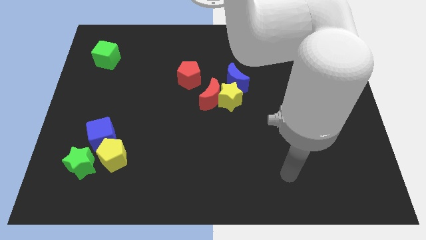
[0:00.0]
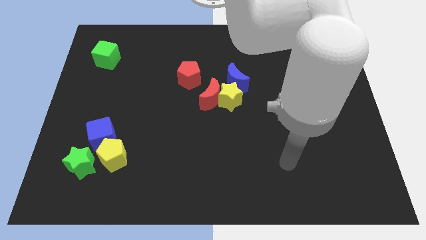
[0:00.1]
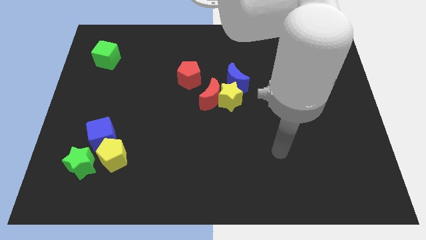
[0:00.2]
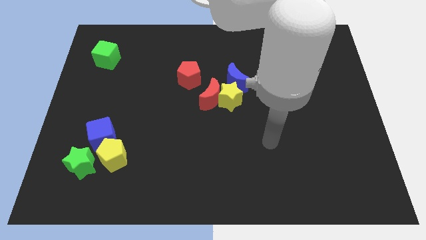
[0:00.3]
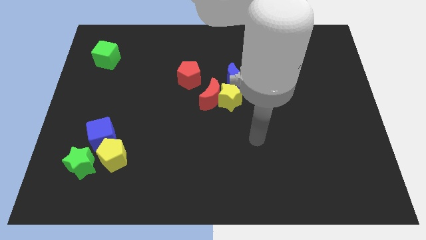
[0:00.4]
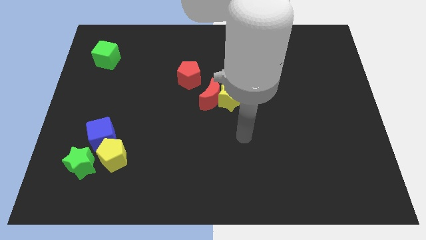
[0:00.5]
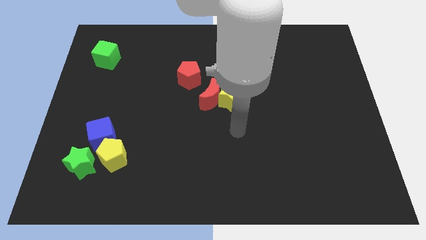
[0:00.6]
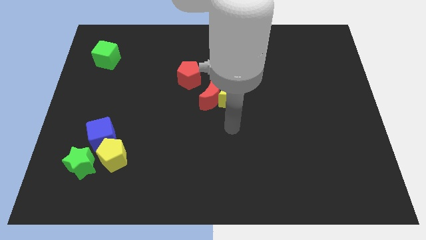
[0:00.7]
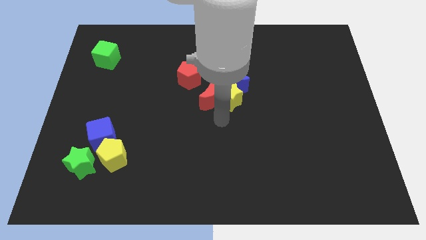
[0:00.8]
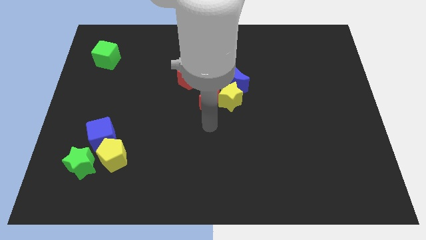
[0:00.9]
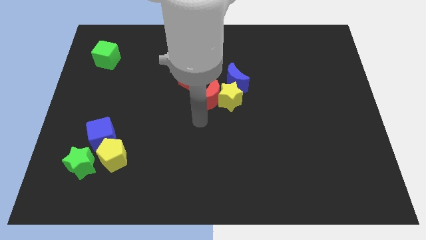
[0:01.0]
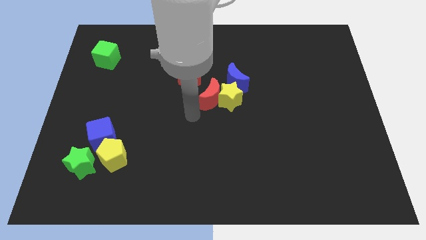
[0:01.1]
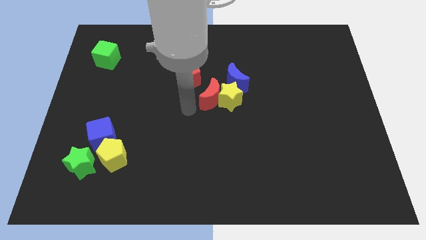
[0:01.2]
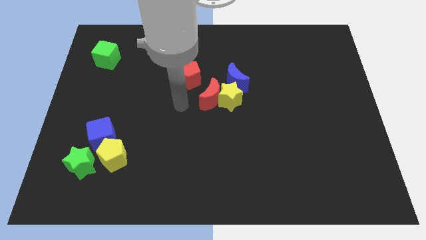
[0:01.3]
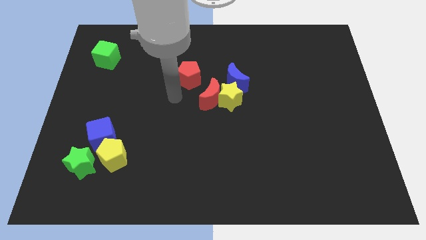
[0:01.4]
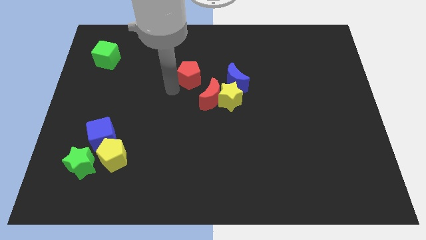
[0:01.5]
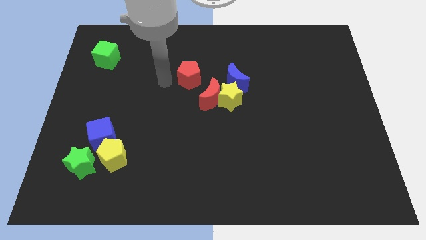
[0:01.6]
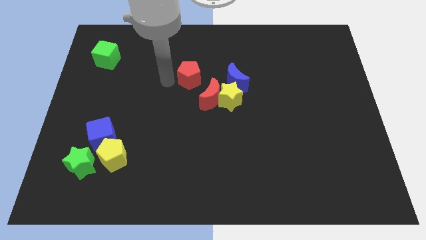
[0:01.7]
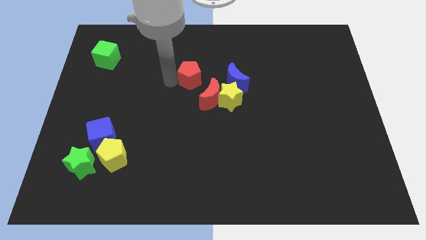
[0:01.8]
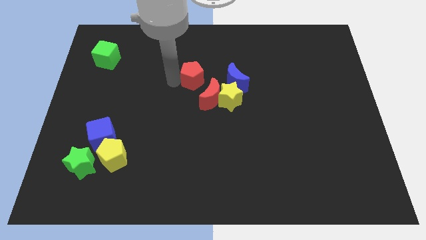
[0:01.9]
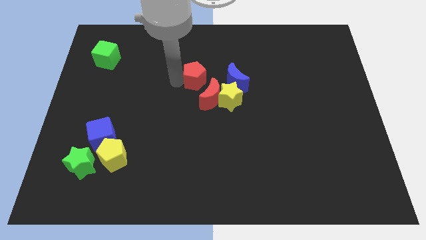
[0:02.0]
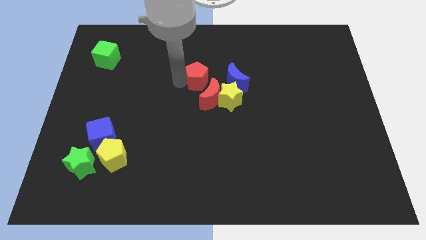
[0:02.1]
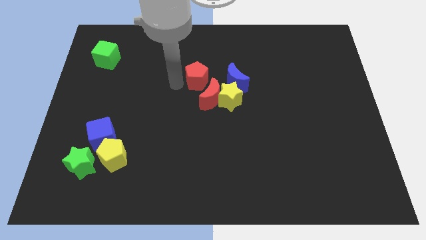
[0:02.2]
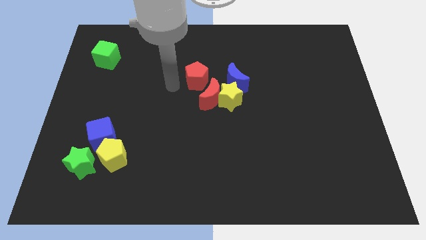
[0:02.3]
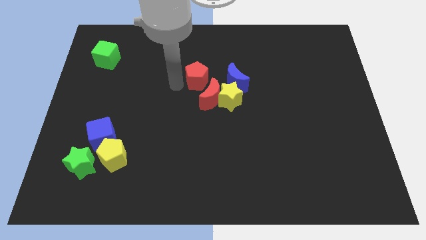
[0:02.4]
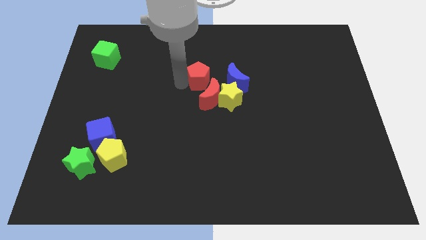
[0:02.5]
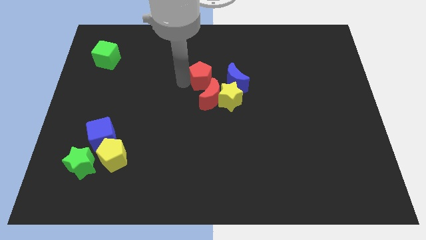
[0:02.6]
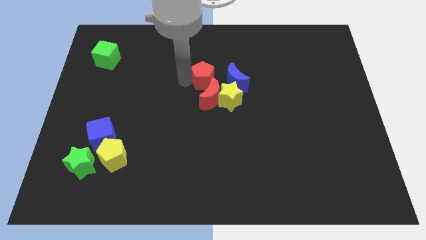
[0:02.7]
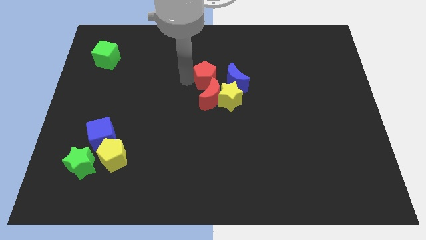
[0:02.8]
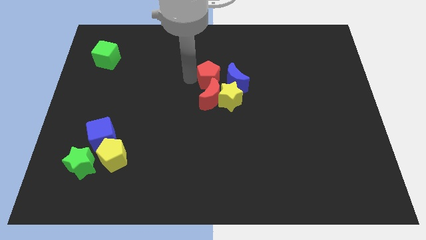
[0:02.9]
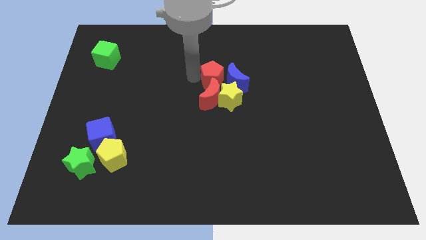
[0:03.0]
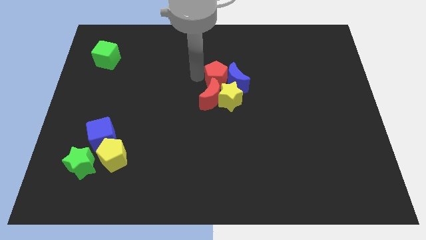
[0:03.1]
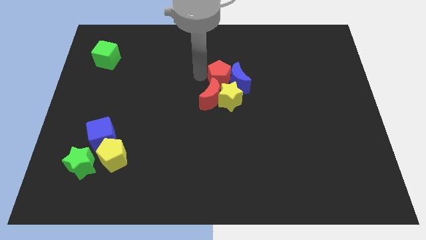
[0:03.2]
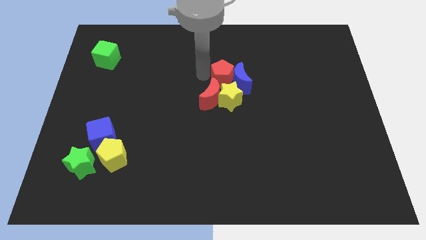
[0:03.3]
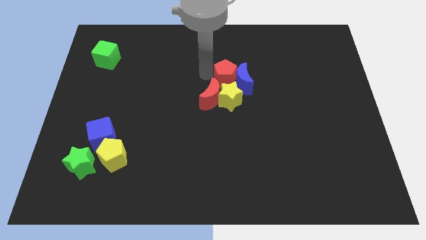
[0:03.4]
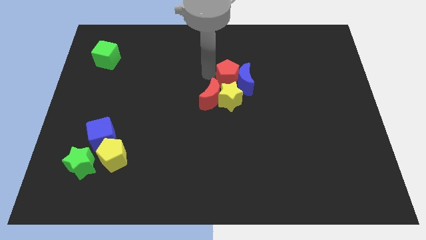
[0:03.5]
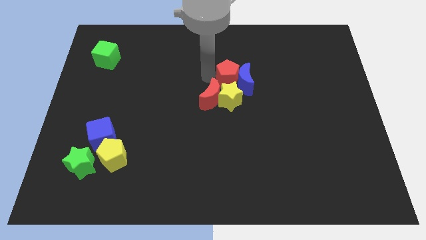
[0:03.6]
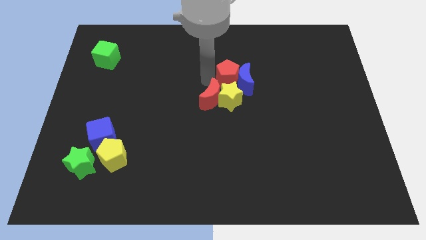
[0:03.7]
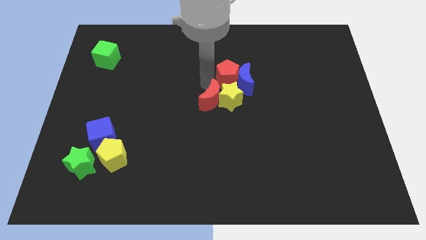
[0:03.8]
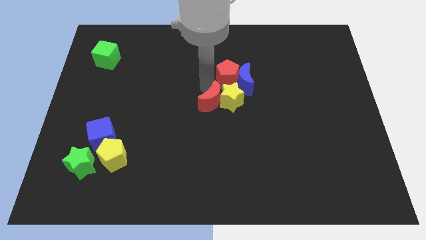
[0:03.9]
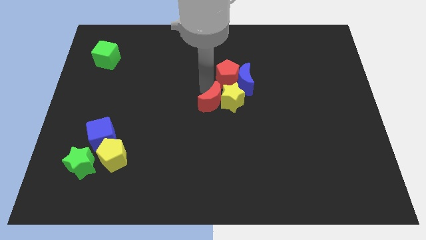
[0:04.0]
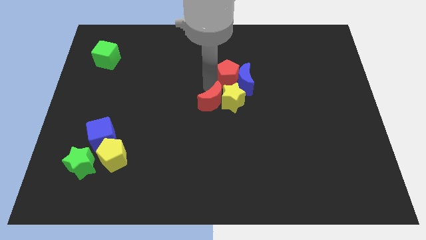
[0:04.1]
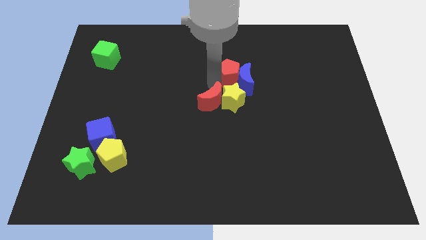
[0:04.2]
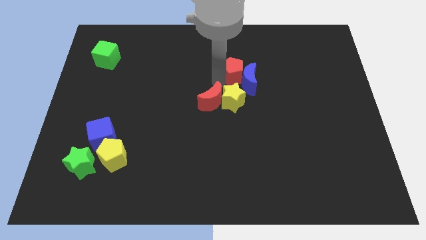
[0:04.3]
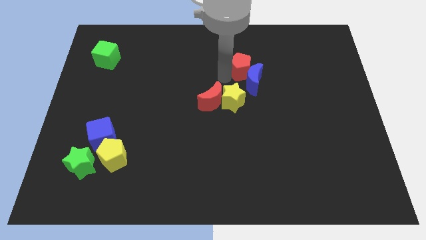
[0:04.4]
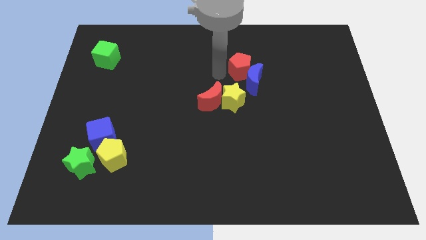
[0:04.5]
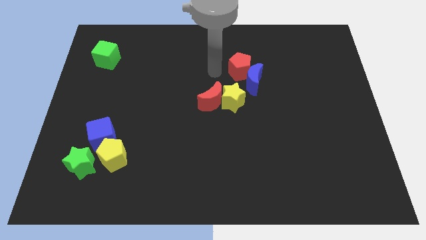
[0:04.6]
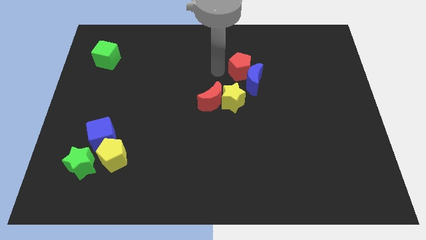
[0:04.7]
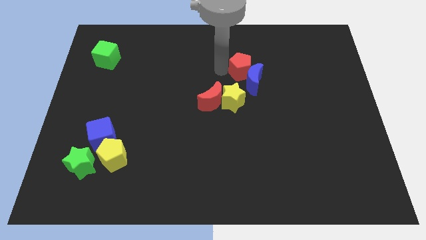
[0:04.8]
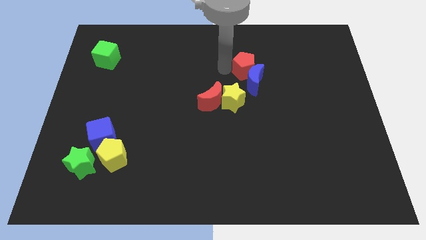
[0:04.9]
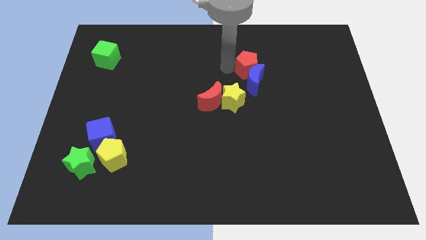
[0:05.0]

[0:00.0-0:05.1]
move the red pentagon diagonally up and to the right of the blue moon

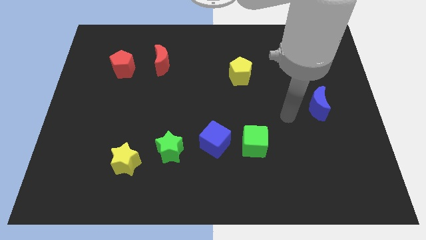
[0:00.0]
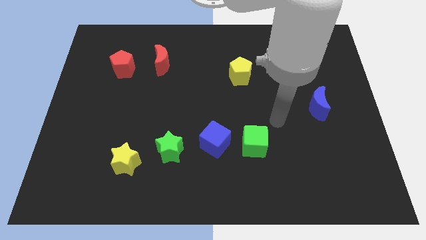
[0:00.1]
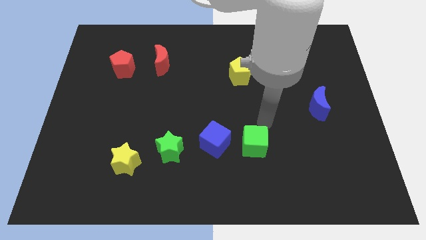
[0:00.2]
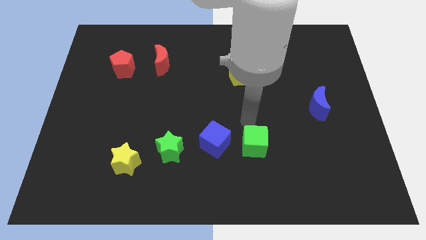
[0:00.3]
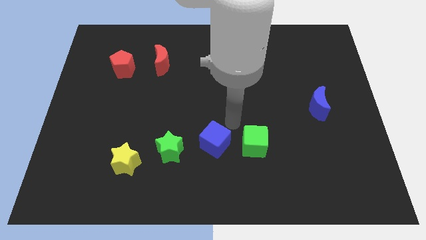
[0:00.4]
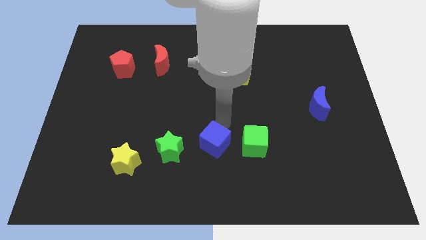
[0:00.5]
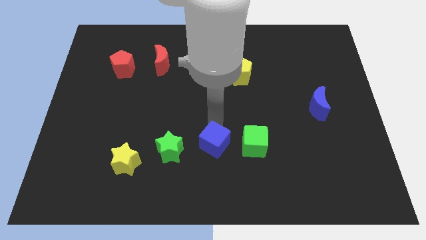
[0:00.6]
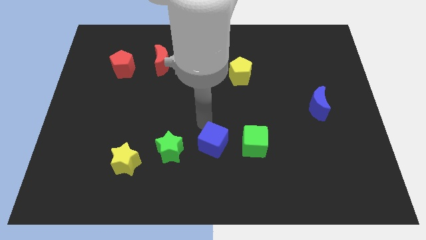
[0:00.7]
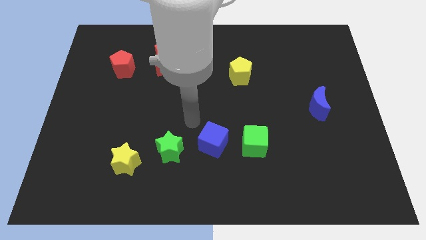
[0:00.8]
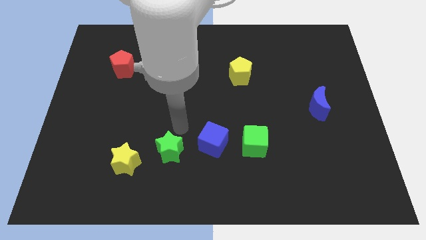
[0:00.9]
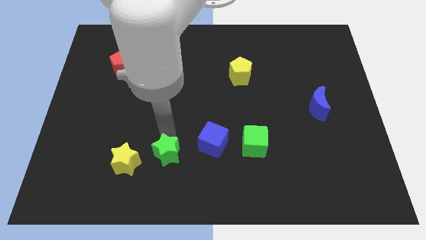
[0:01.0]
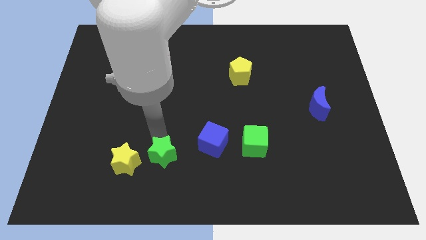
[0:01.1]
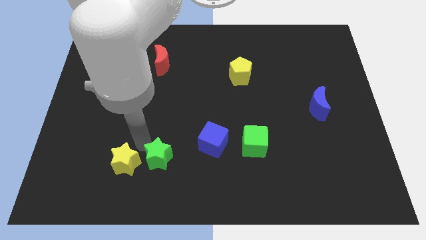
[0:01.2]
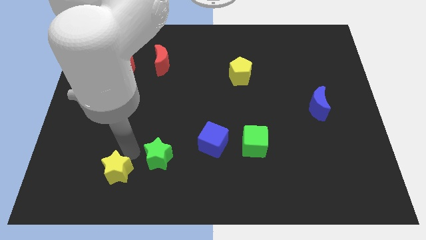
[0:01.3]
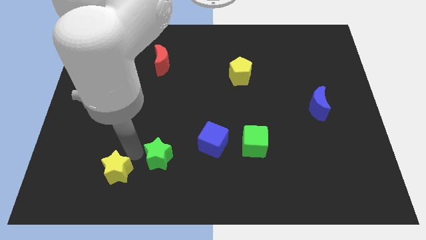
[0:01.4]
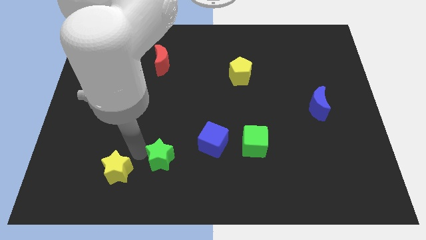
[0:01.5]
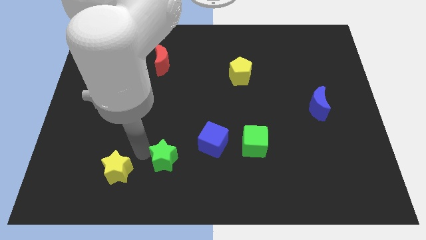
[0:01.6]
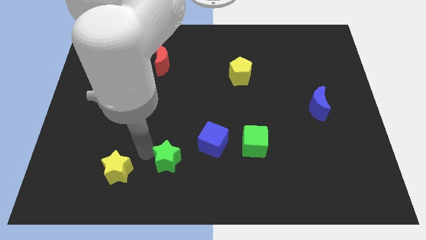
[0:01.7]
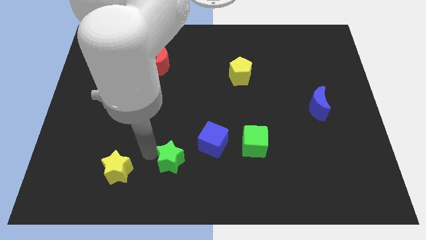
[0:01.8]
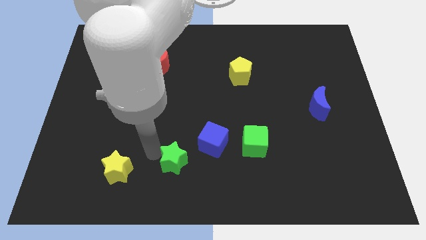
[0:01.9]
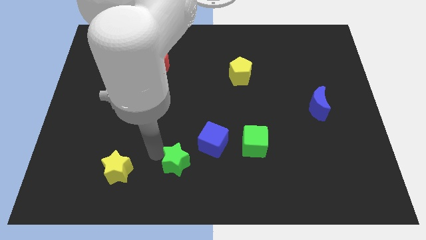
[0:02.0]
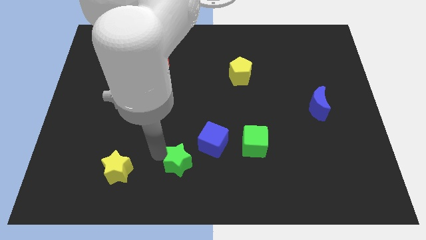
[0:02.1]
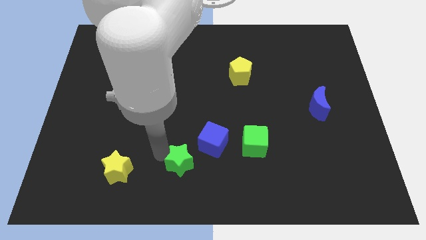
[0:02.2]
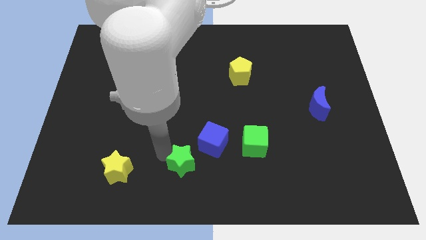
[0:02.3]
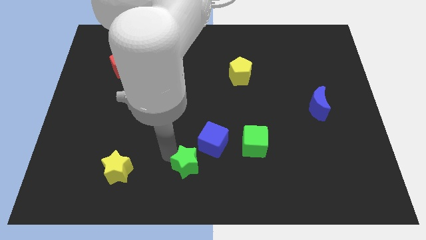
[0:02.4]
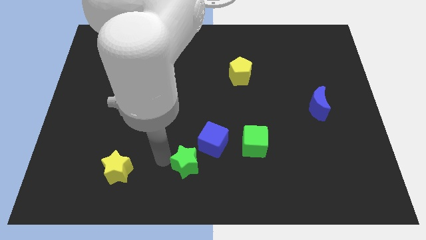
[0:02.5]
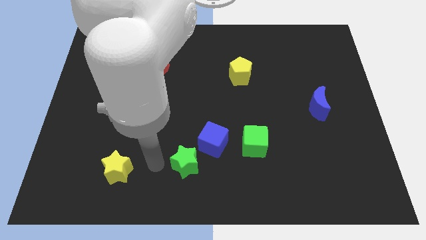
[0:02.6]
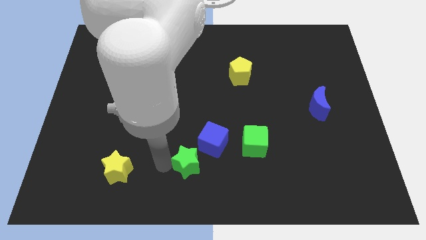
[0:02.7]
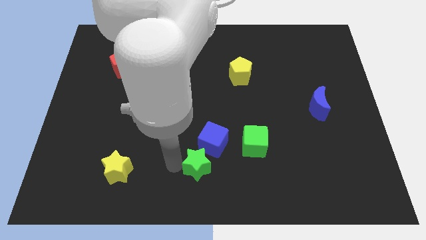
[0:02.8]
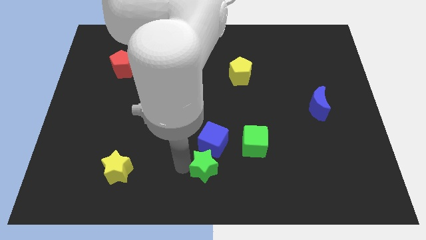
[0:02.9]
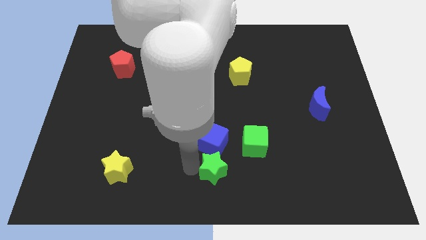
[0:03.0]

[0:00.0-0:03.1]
put the green star to the bottom left of the green cube
